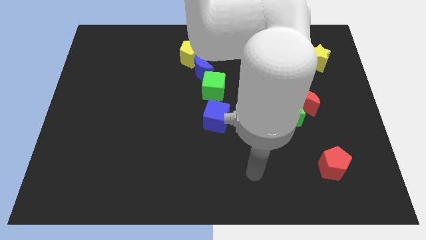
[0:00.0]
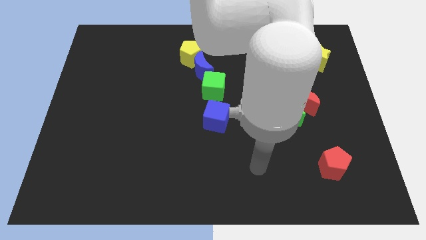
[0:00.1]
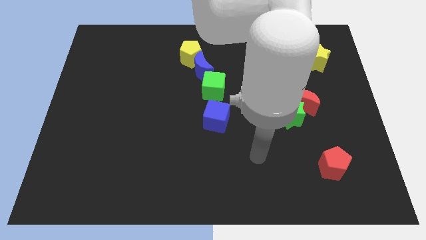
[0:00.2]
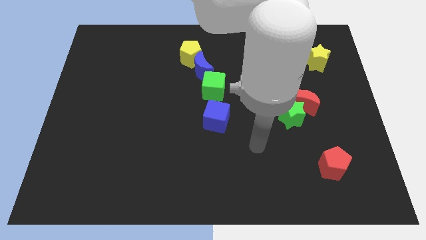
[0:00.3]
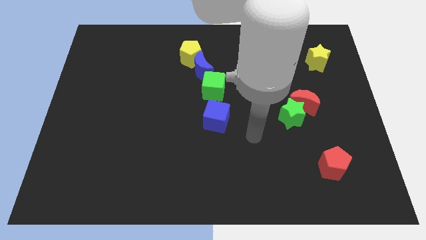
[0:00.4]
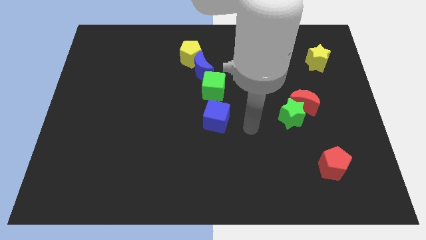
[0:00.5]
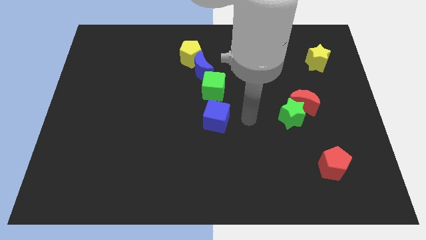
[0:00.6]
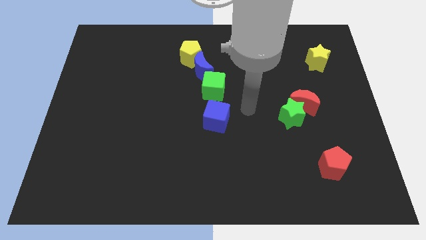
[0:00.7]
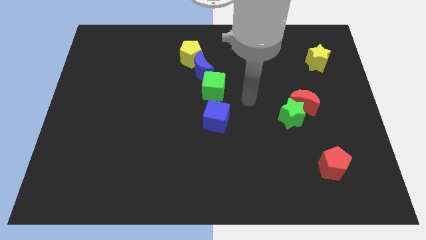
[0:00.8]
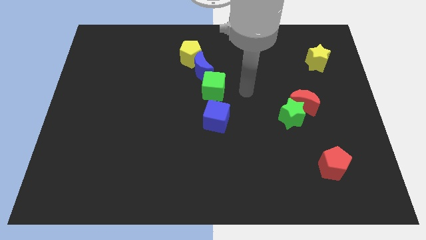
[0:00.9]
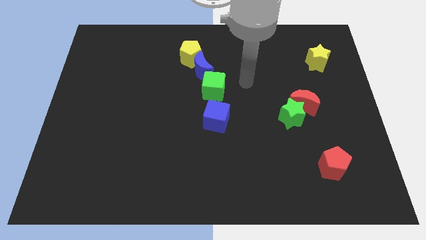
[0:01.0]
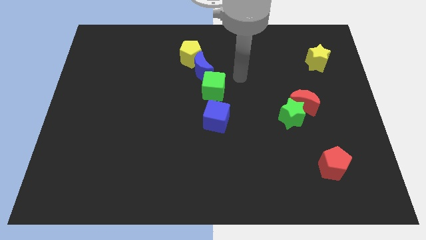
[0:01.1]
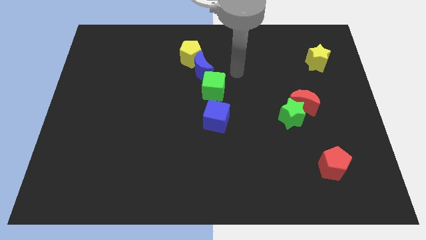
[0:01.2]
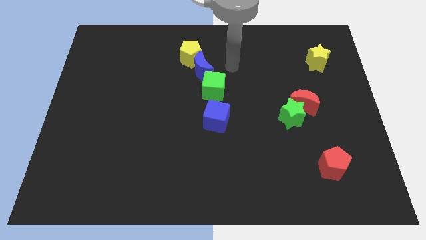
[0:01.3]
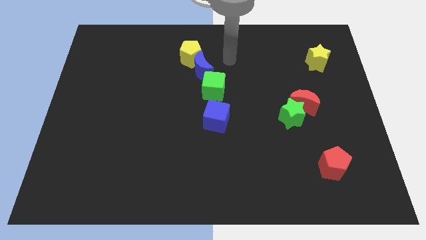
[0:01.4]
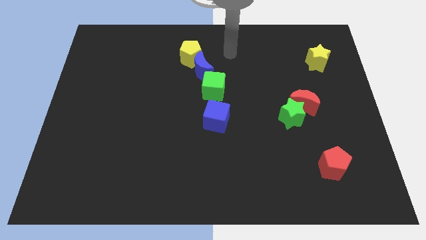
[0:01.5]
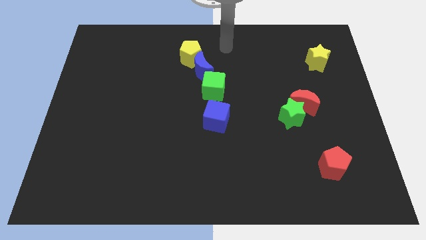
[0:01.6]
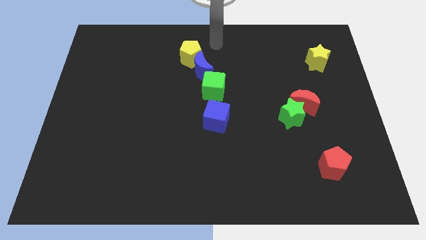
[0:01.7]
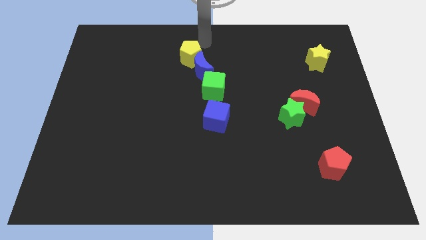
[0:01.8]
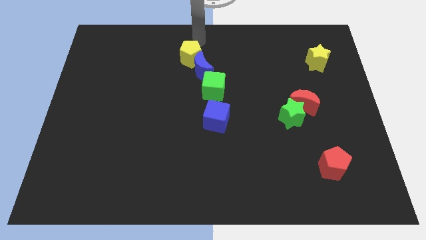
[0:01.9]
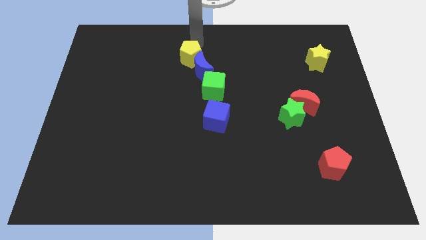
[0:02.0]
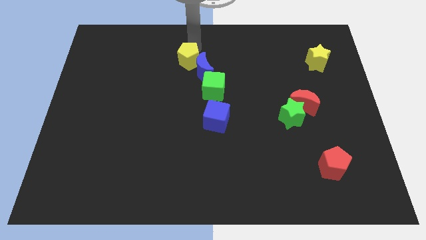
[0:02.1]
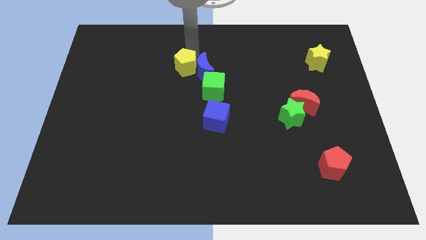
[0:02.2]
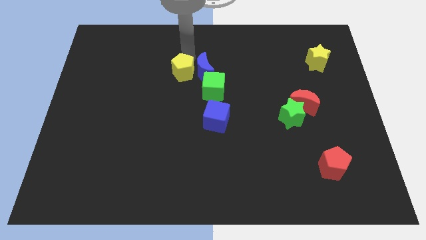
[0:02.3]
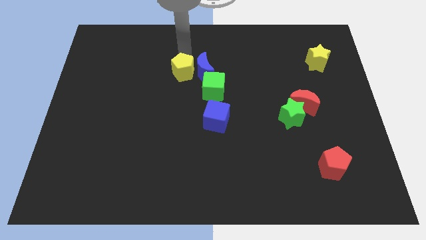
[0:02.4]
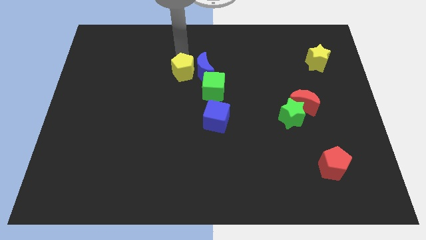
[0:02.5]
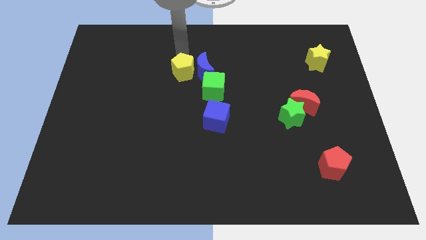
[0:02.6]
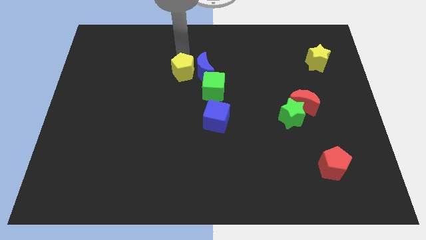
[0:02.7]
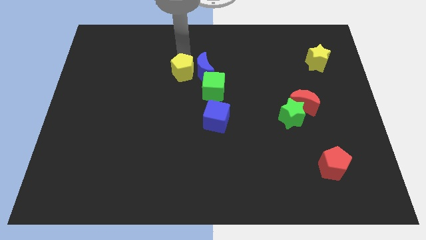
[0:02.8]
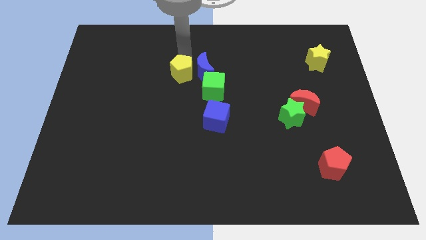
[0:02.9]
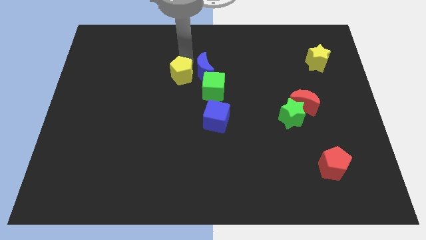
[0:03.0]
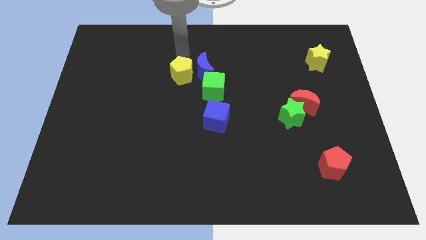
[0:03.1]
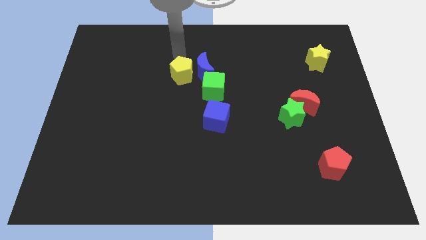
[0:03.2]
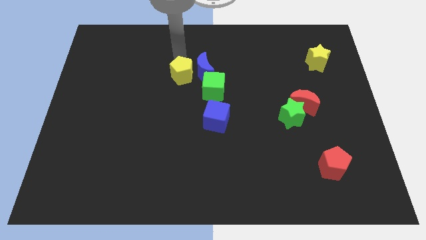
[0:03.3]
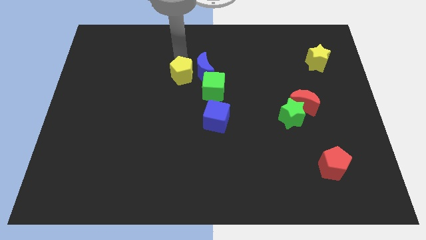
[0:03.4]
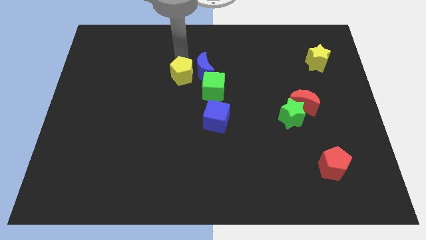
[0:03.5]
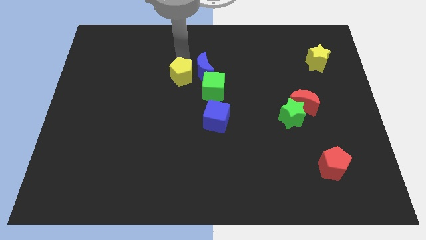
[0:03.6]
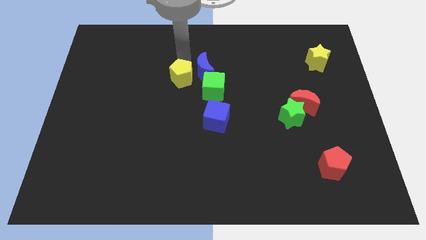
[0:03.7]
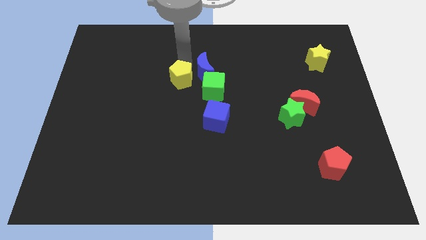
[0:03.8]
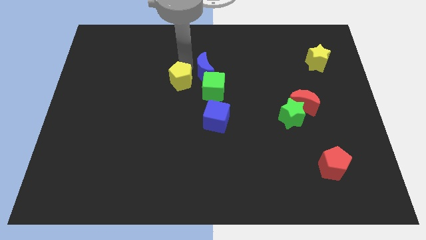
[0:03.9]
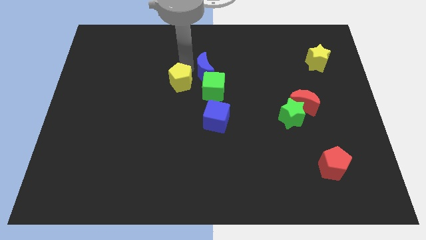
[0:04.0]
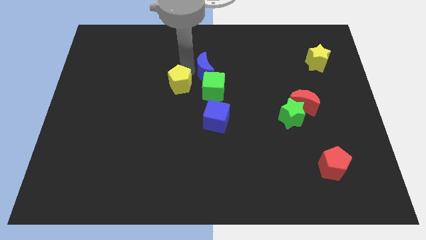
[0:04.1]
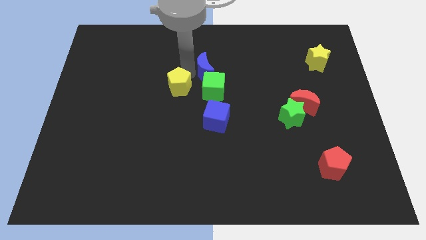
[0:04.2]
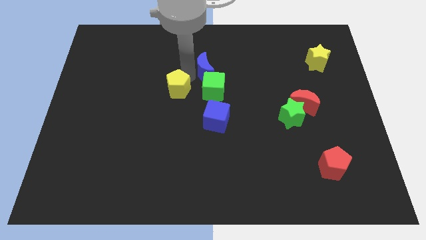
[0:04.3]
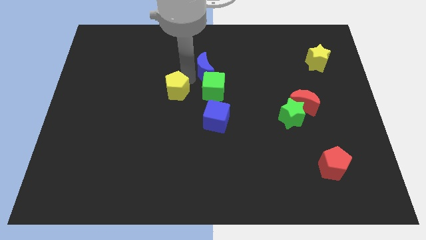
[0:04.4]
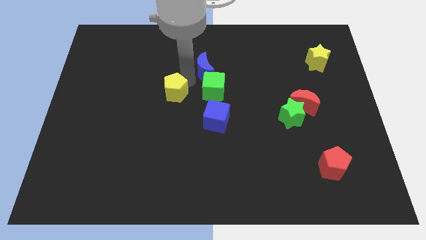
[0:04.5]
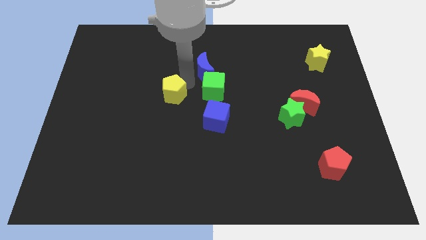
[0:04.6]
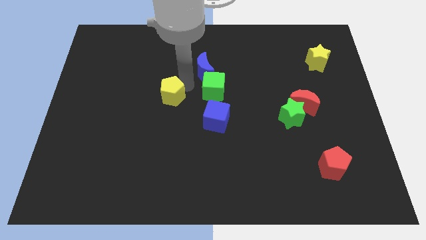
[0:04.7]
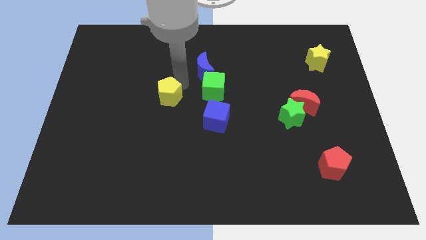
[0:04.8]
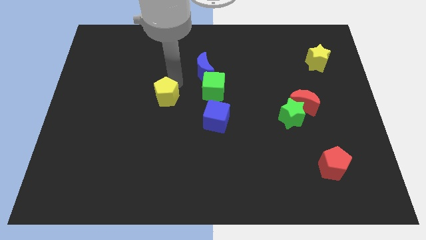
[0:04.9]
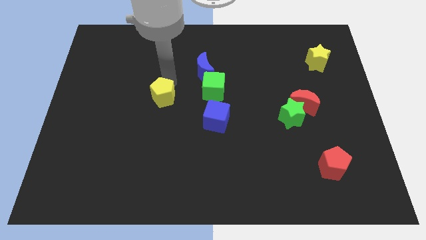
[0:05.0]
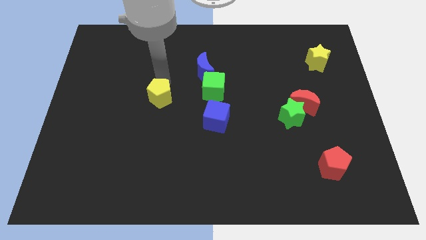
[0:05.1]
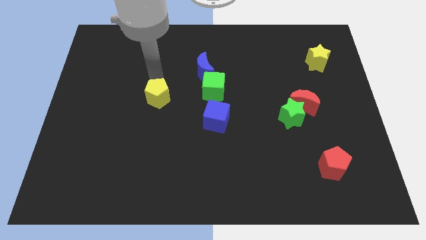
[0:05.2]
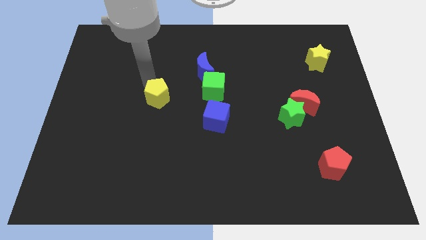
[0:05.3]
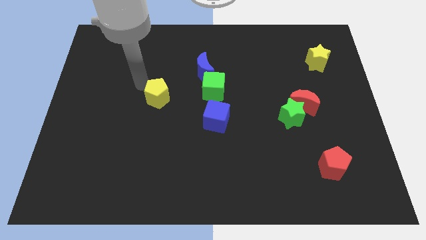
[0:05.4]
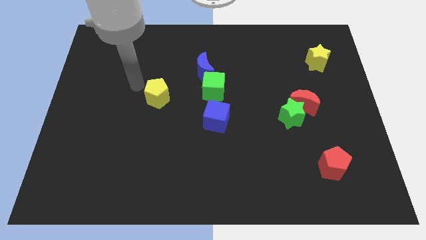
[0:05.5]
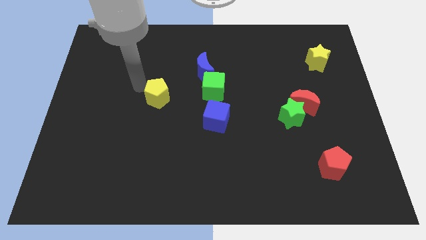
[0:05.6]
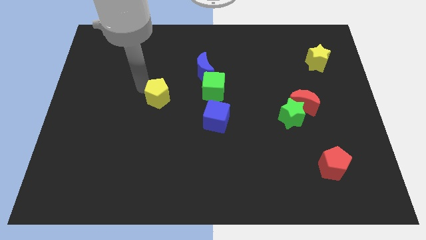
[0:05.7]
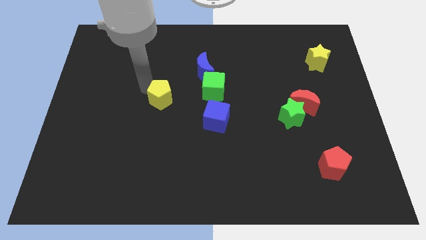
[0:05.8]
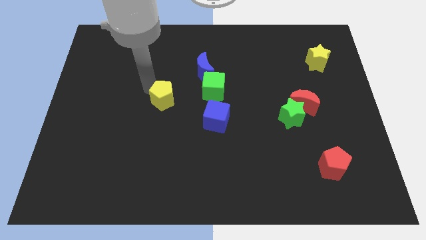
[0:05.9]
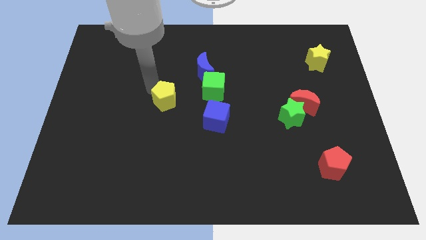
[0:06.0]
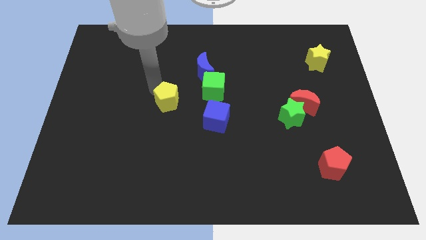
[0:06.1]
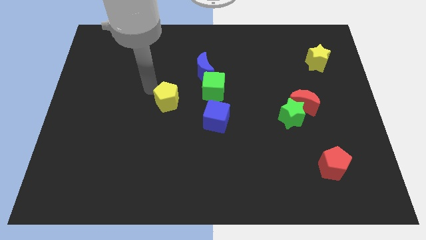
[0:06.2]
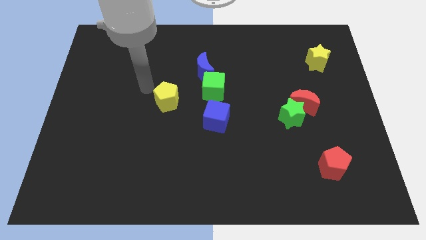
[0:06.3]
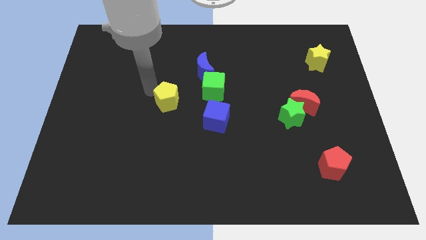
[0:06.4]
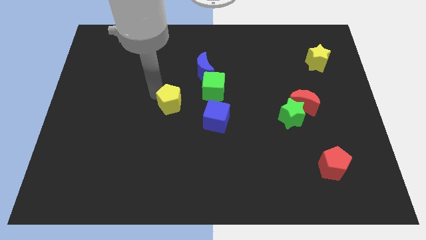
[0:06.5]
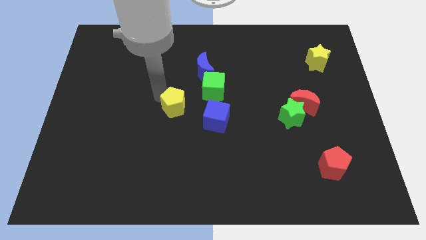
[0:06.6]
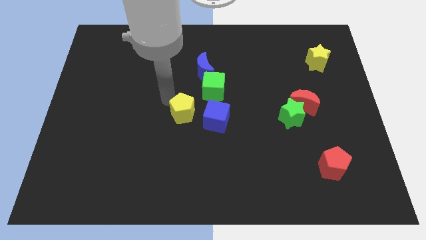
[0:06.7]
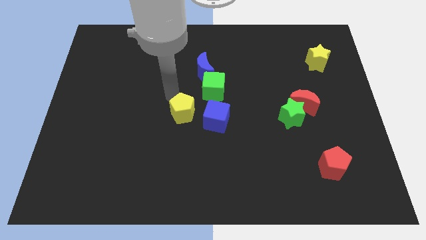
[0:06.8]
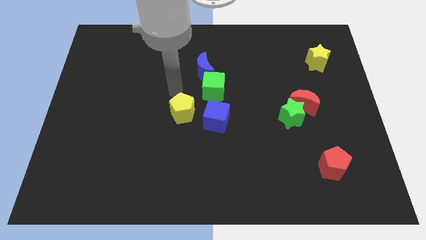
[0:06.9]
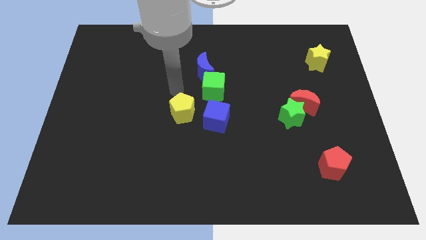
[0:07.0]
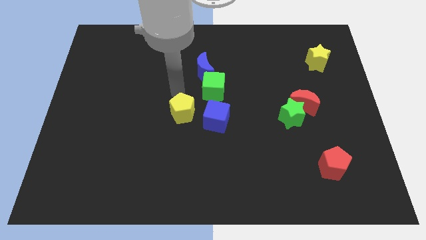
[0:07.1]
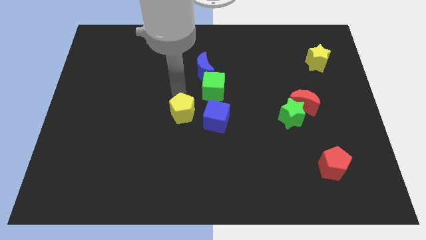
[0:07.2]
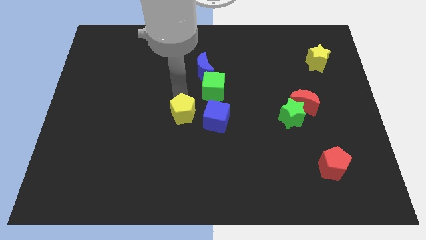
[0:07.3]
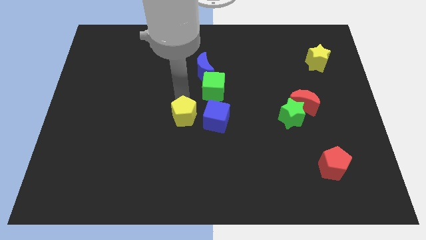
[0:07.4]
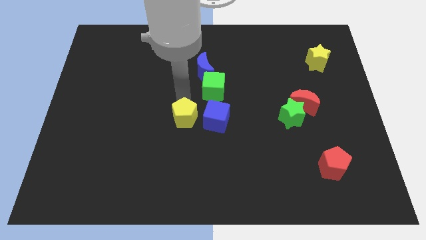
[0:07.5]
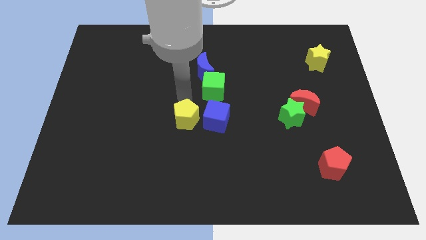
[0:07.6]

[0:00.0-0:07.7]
slide the yellow pentagon downwards

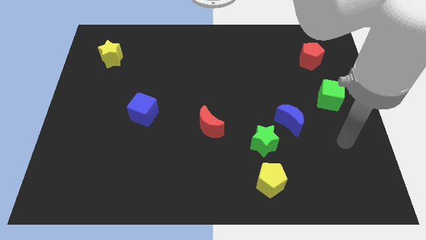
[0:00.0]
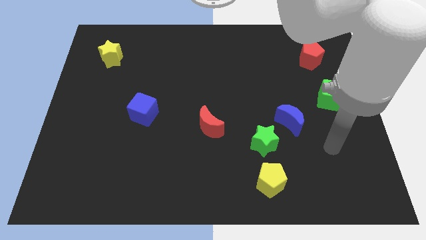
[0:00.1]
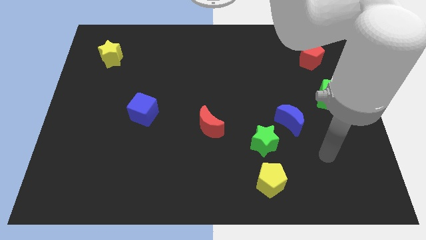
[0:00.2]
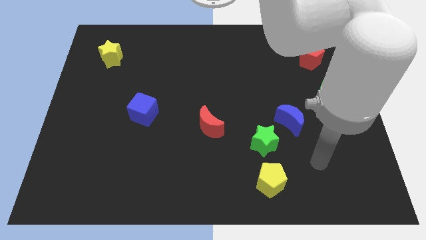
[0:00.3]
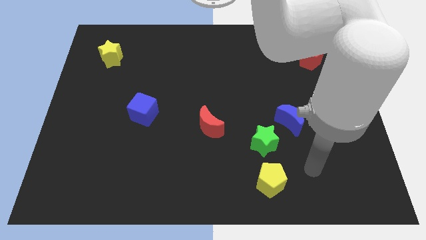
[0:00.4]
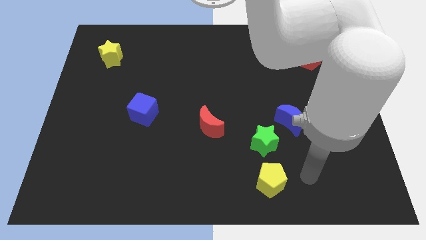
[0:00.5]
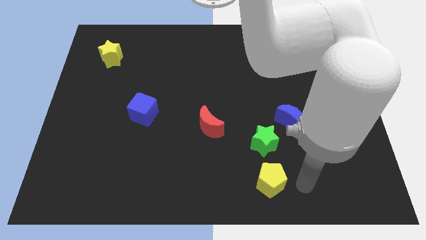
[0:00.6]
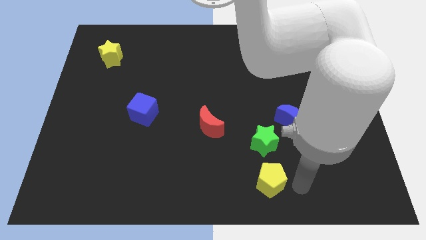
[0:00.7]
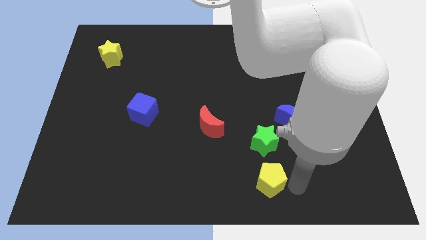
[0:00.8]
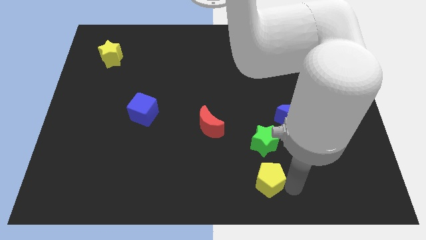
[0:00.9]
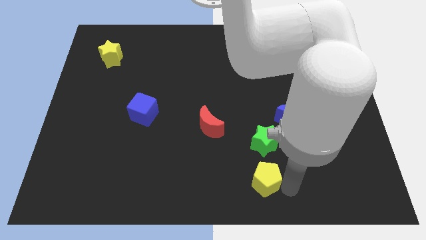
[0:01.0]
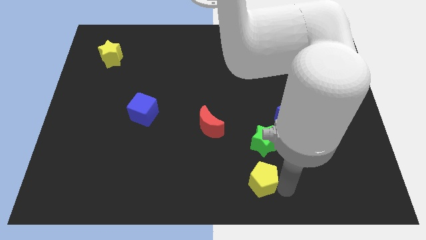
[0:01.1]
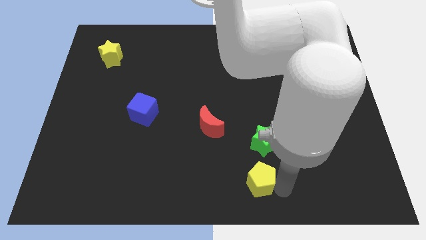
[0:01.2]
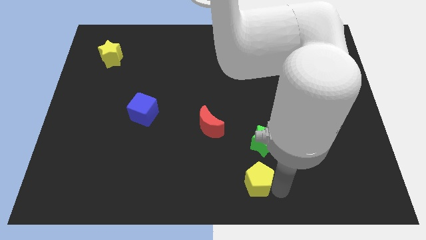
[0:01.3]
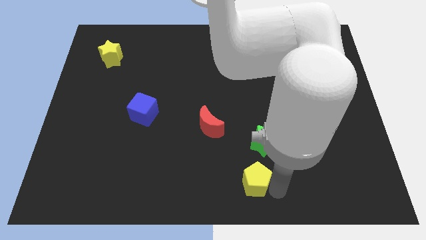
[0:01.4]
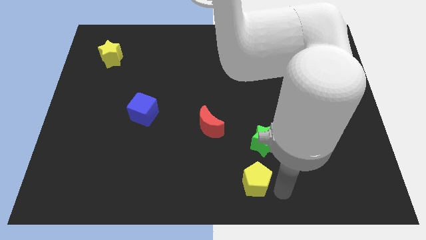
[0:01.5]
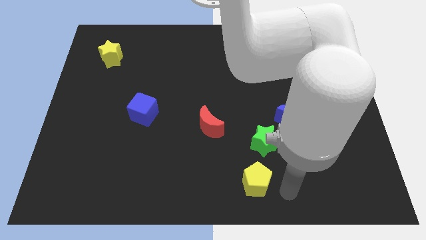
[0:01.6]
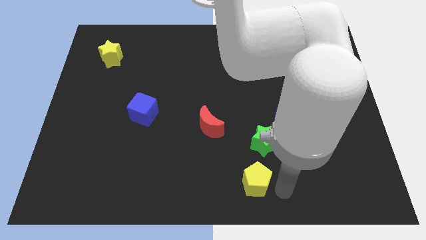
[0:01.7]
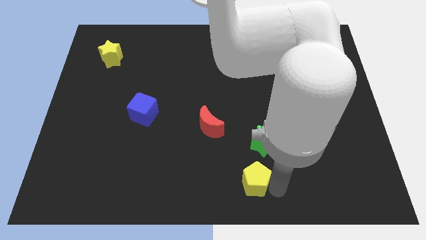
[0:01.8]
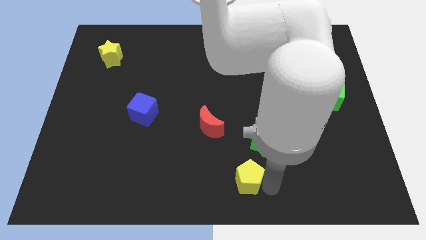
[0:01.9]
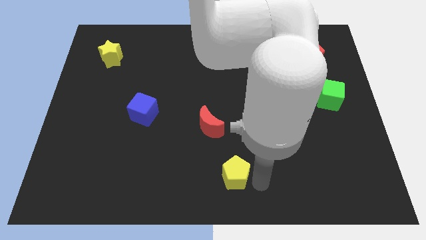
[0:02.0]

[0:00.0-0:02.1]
slightly push the yellow pentagon left
